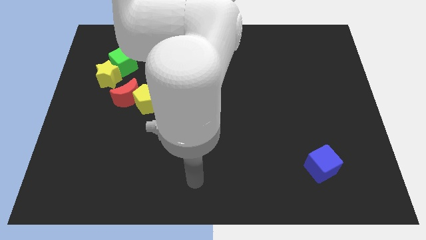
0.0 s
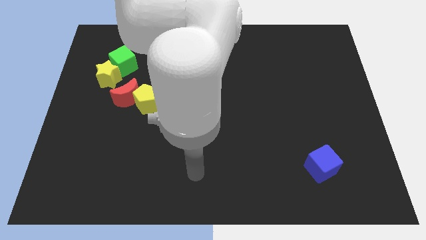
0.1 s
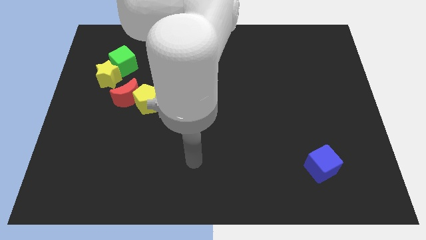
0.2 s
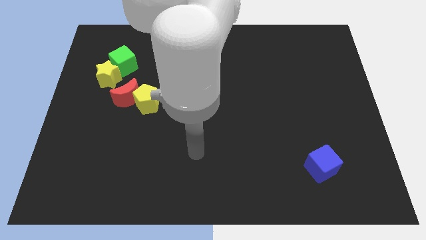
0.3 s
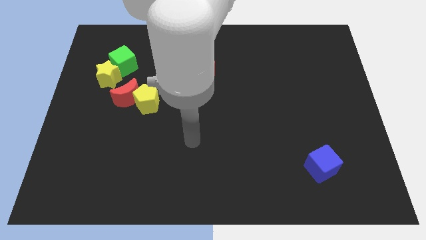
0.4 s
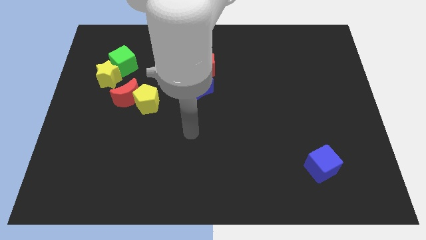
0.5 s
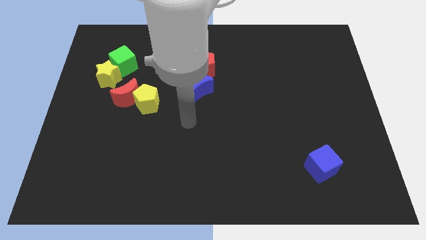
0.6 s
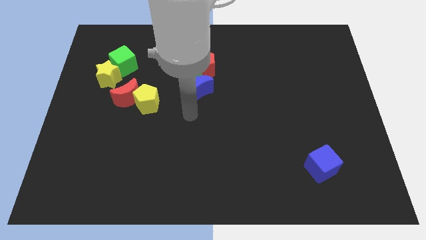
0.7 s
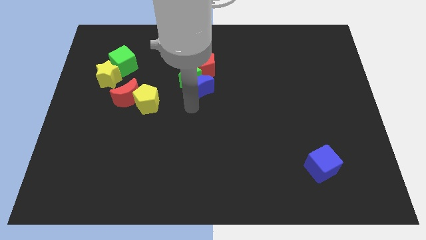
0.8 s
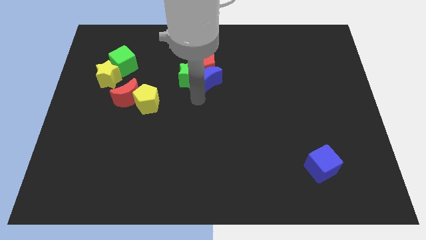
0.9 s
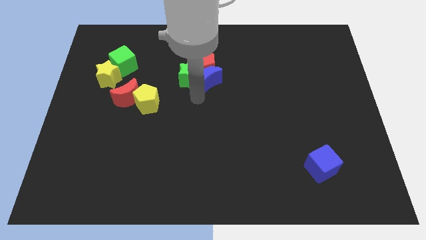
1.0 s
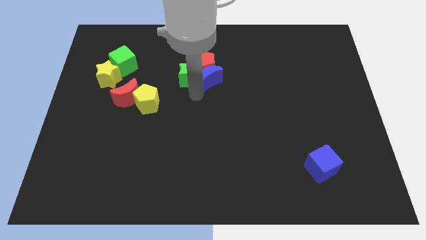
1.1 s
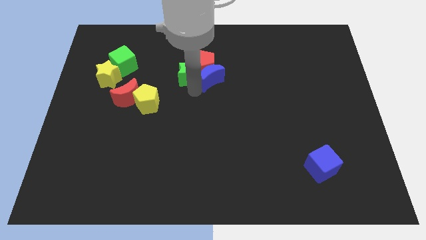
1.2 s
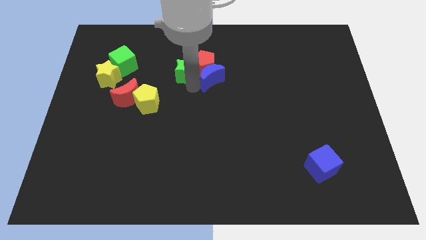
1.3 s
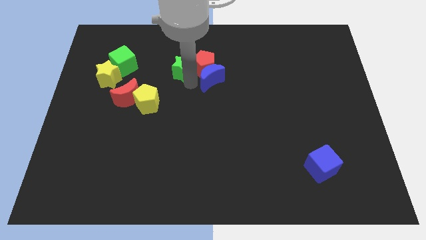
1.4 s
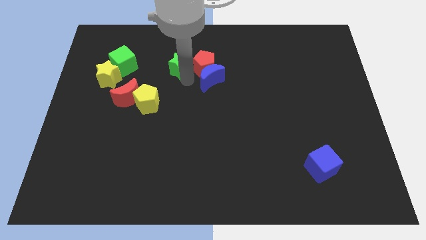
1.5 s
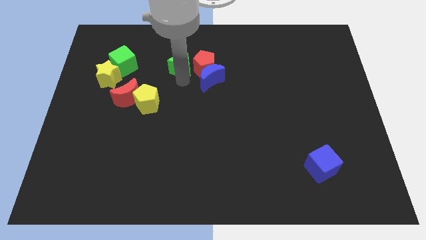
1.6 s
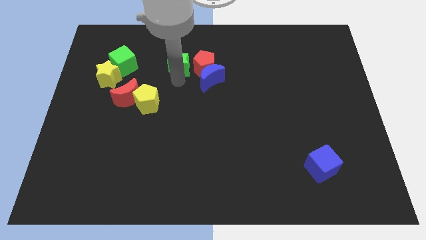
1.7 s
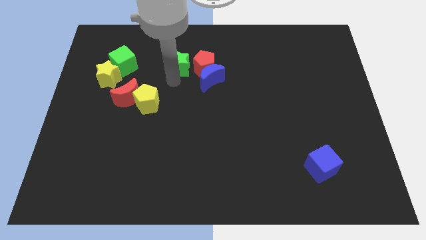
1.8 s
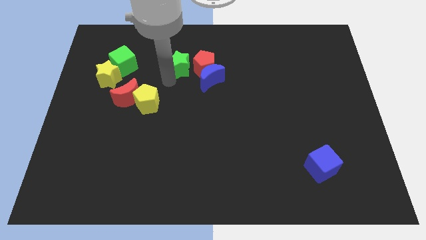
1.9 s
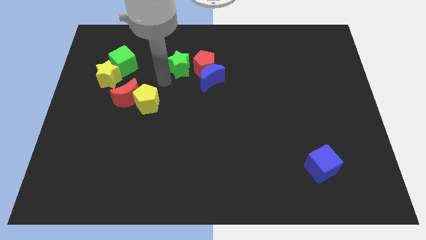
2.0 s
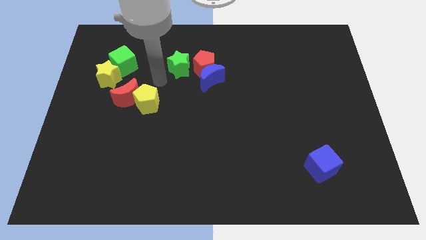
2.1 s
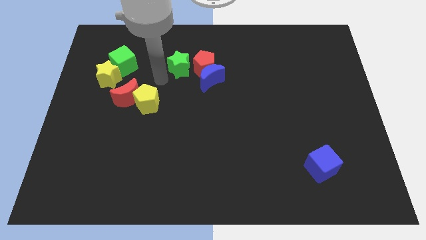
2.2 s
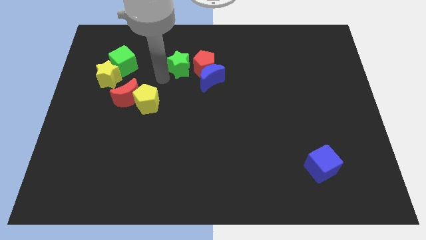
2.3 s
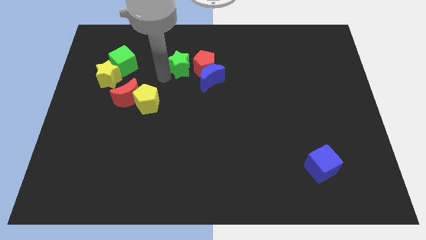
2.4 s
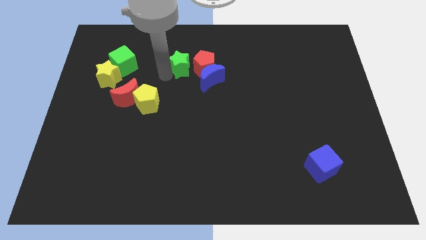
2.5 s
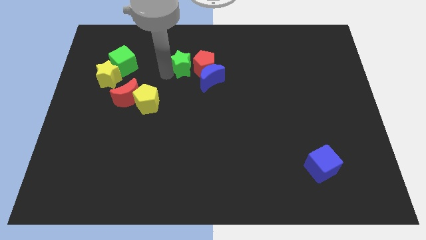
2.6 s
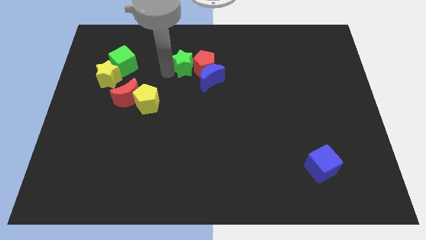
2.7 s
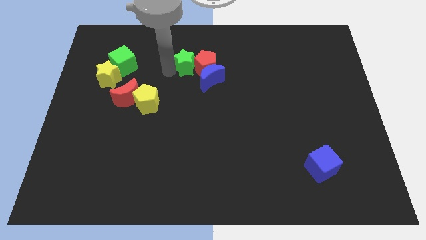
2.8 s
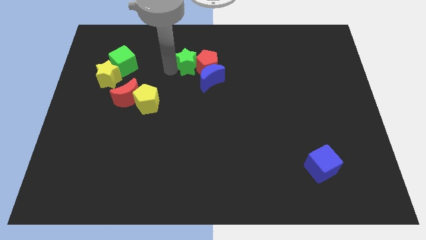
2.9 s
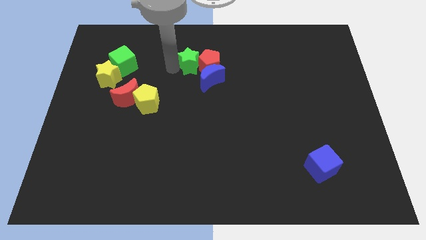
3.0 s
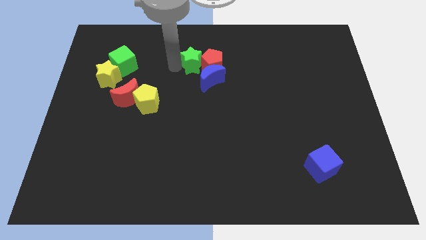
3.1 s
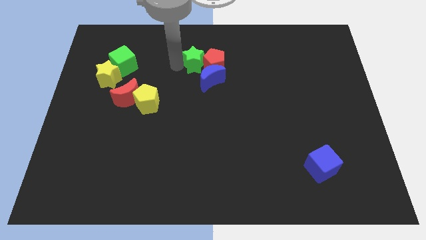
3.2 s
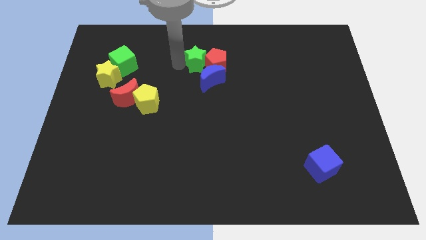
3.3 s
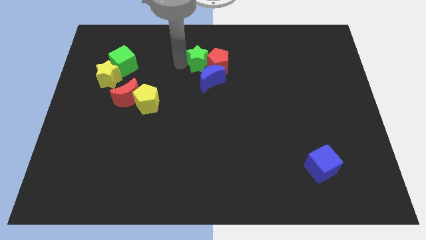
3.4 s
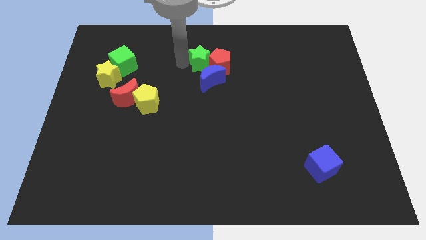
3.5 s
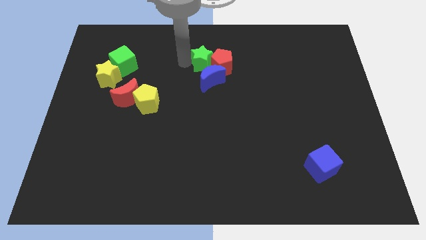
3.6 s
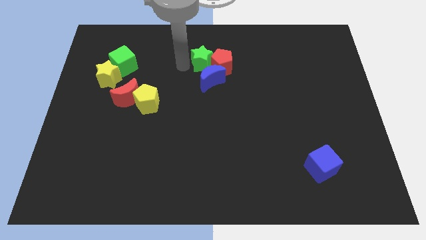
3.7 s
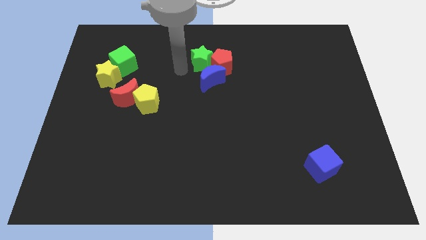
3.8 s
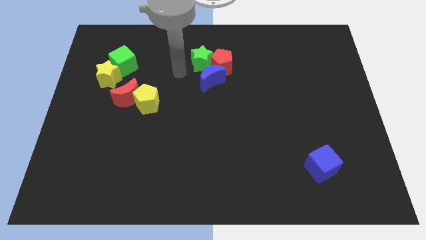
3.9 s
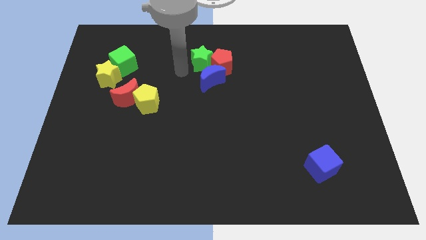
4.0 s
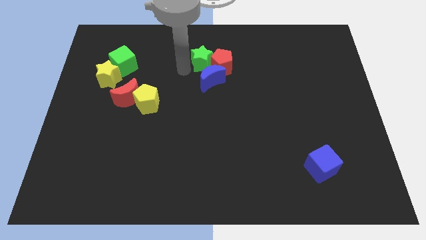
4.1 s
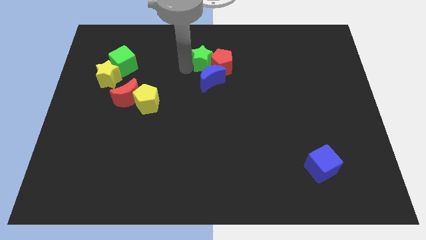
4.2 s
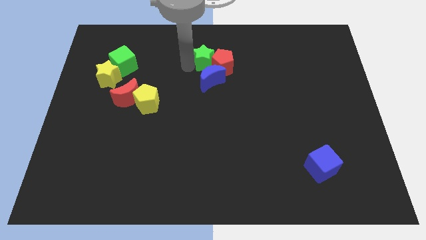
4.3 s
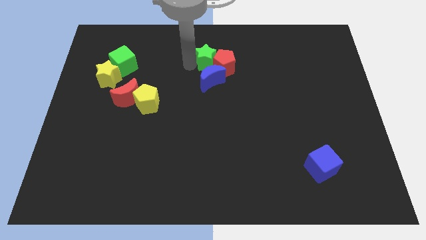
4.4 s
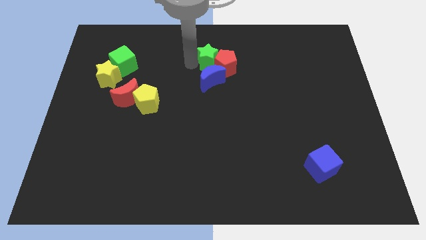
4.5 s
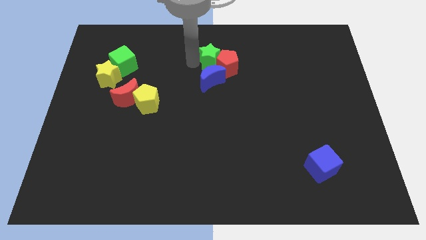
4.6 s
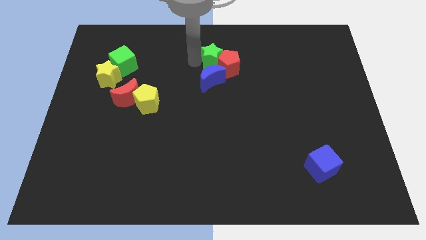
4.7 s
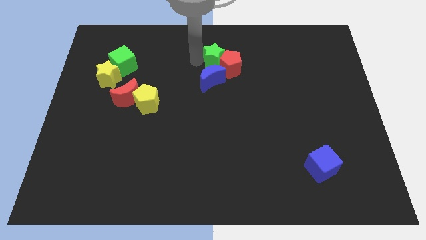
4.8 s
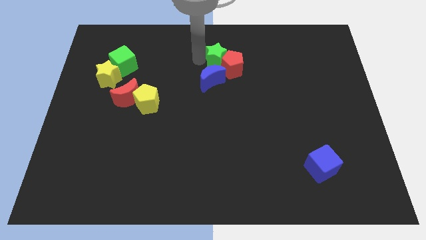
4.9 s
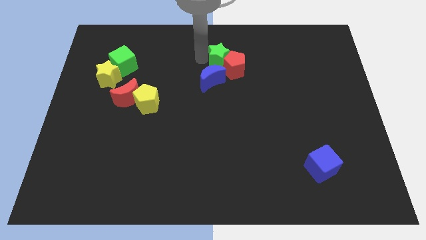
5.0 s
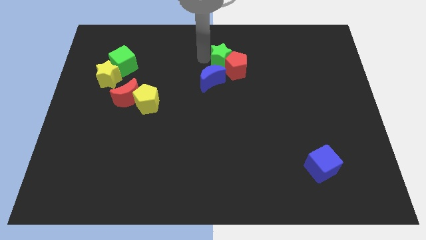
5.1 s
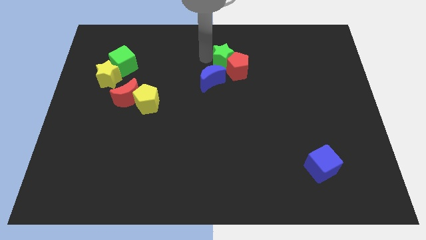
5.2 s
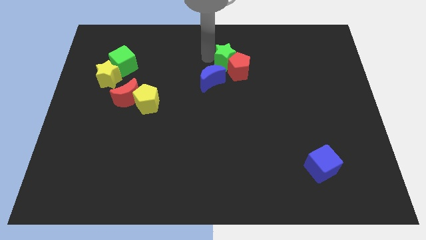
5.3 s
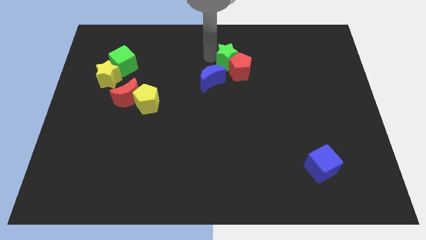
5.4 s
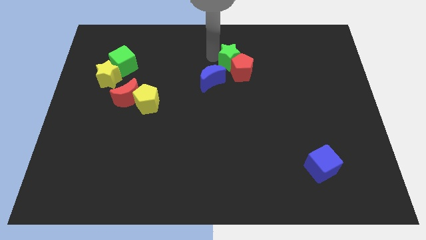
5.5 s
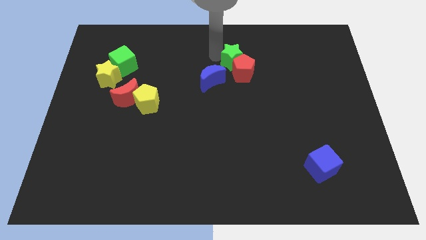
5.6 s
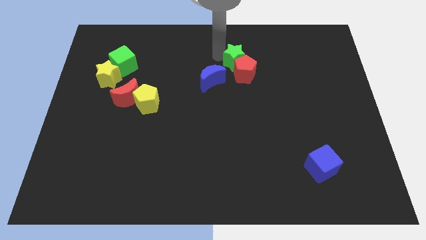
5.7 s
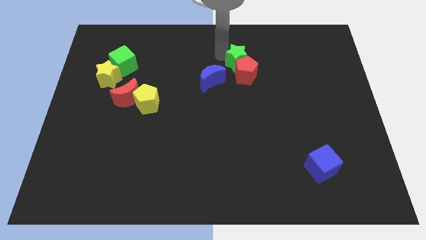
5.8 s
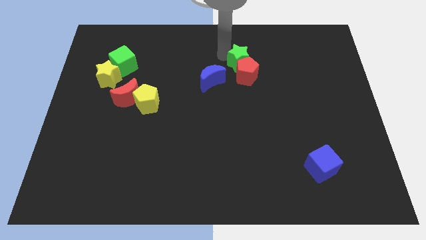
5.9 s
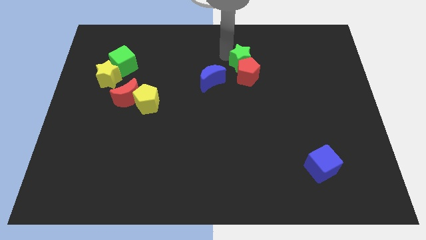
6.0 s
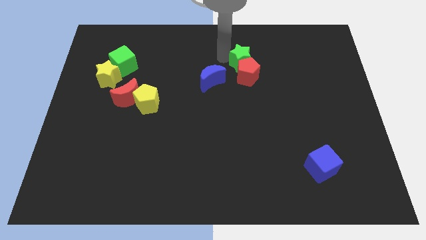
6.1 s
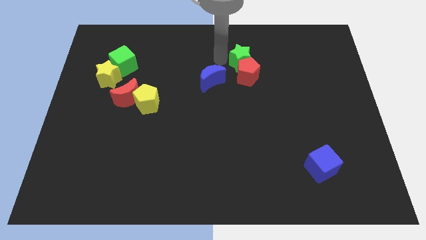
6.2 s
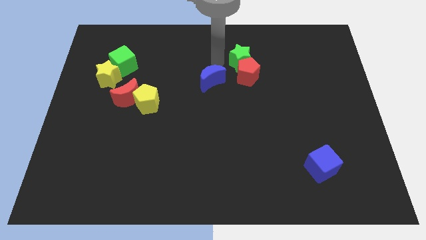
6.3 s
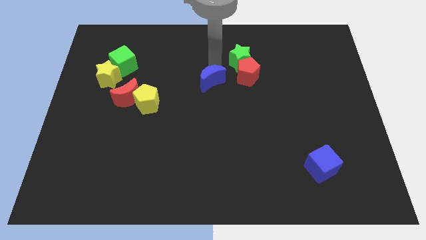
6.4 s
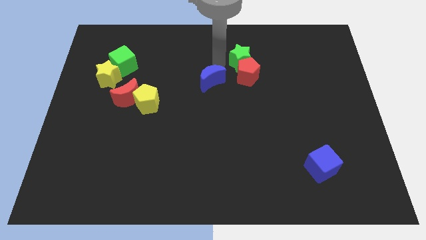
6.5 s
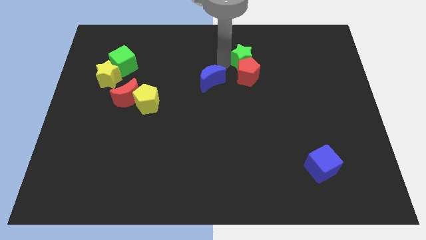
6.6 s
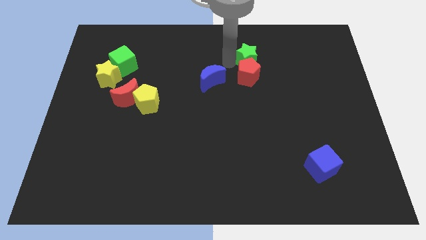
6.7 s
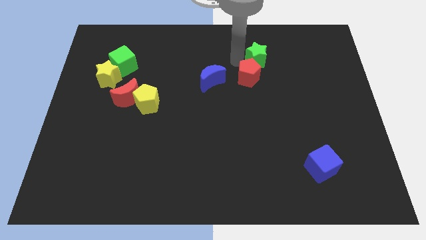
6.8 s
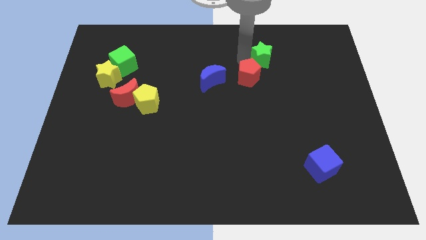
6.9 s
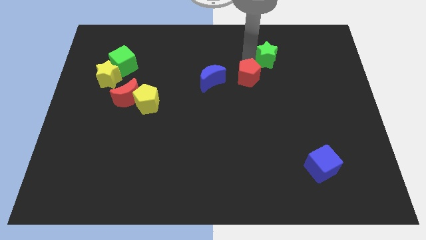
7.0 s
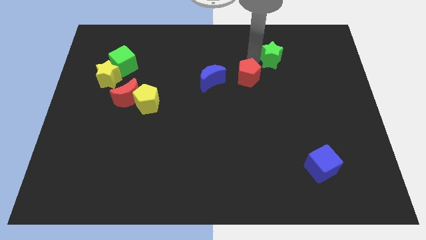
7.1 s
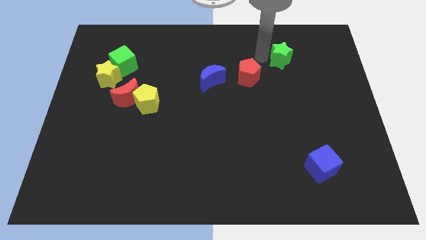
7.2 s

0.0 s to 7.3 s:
push the green star right

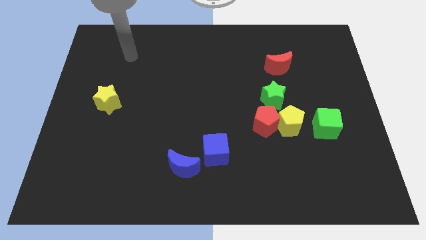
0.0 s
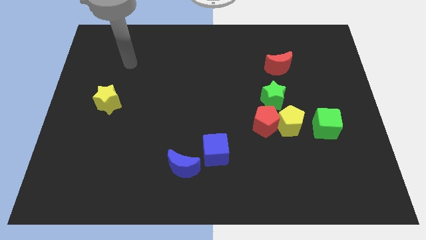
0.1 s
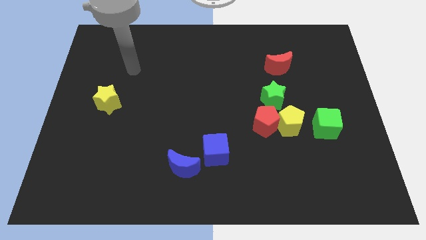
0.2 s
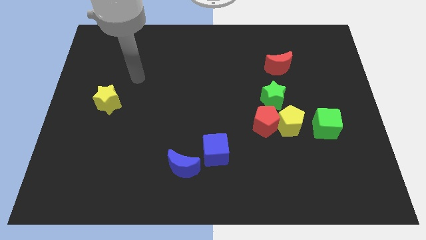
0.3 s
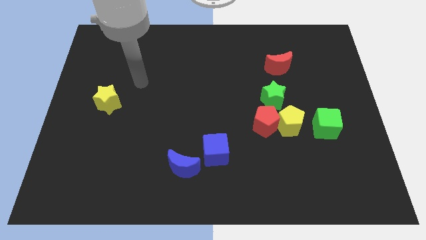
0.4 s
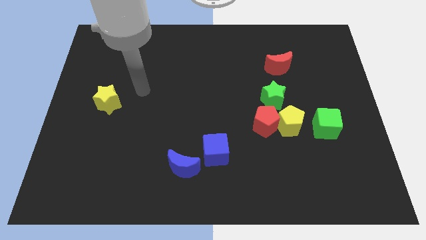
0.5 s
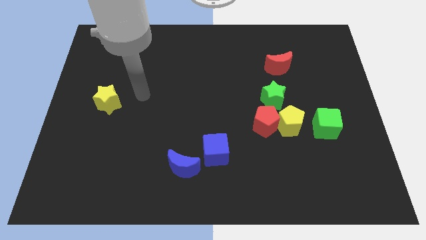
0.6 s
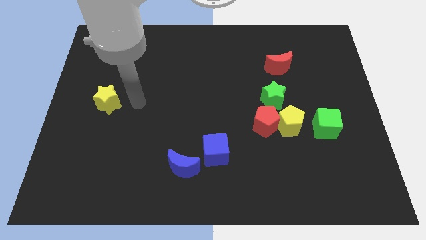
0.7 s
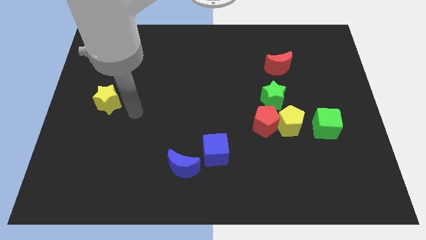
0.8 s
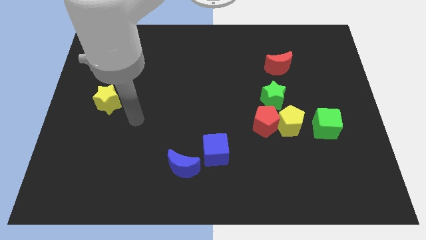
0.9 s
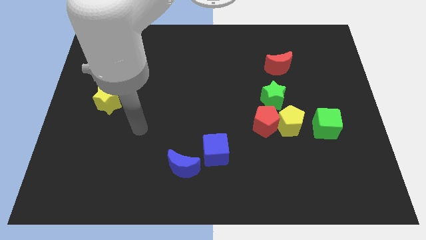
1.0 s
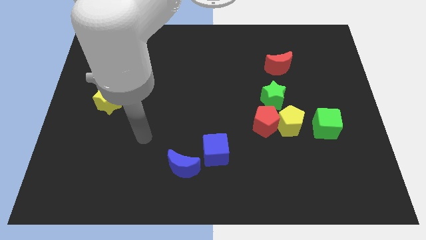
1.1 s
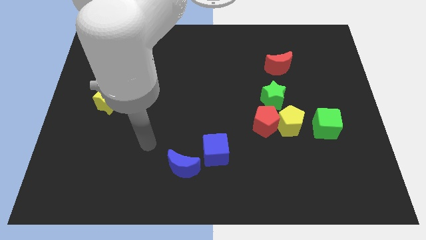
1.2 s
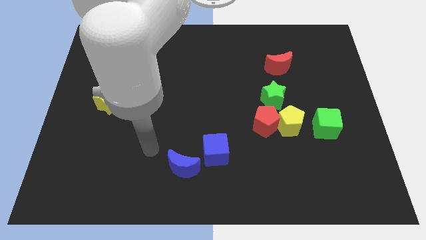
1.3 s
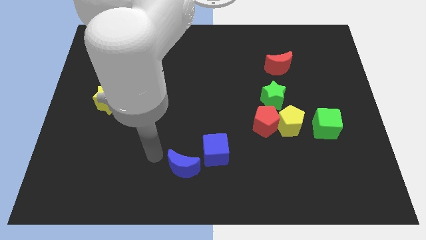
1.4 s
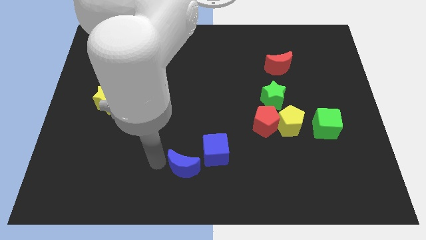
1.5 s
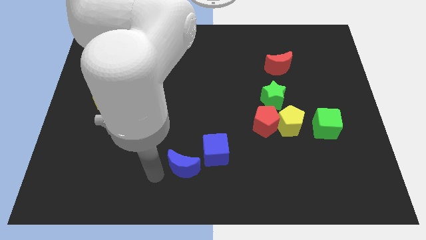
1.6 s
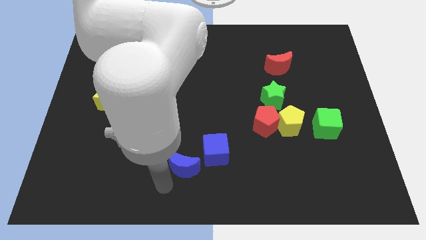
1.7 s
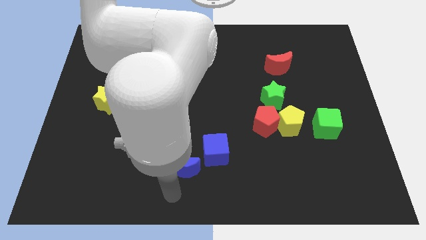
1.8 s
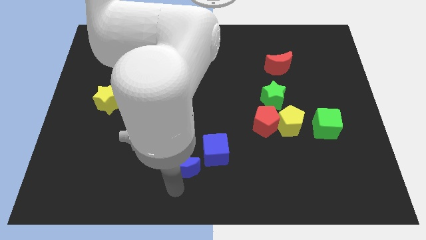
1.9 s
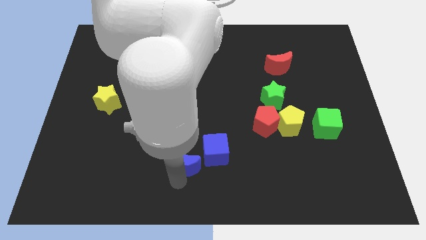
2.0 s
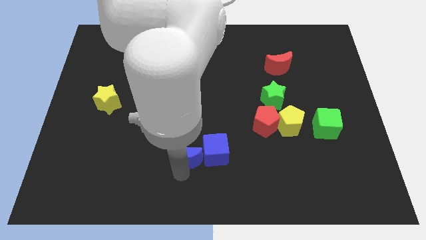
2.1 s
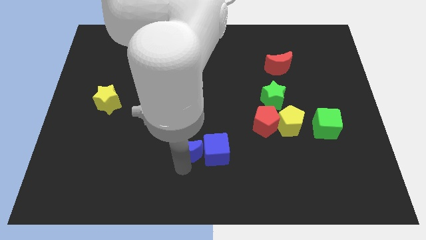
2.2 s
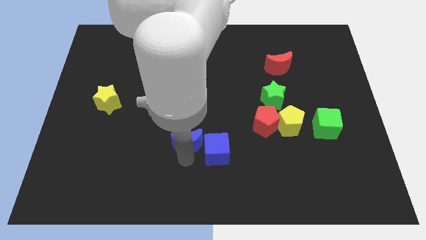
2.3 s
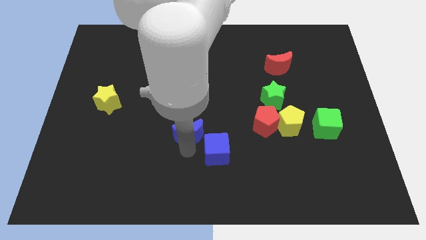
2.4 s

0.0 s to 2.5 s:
slide the blue moon somewhat up
